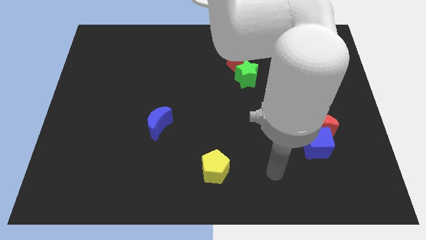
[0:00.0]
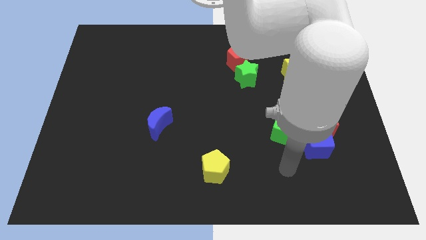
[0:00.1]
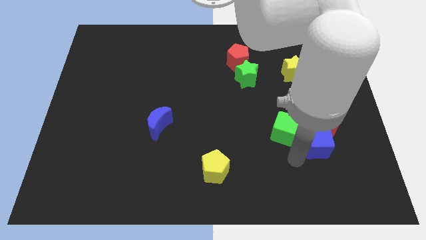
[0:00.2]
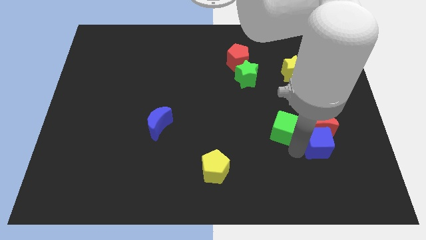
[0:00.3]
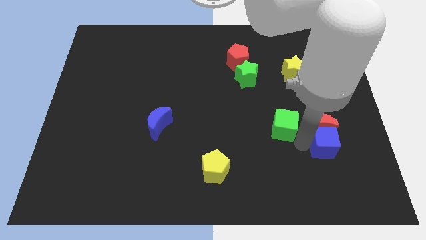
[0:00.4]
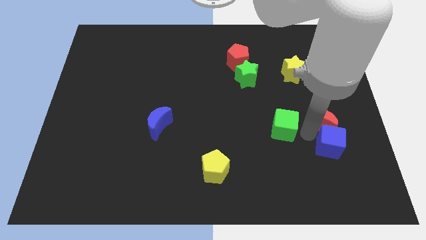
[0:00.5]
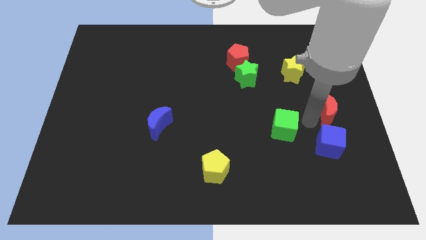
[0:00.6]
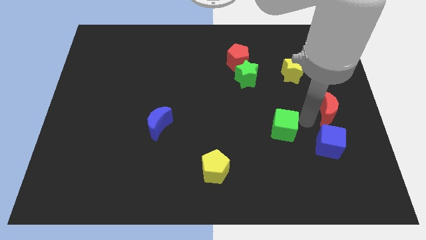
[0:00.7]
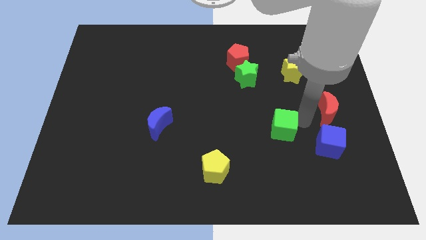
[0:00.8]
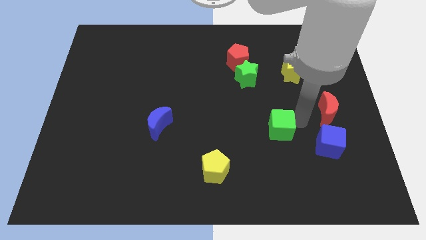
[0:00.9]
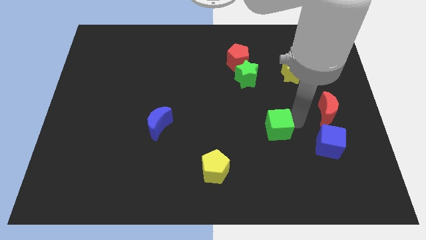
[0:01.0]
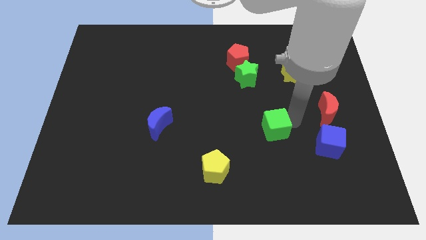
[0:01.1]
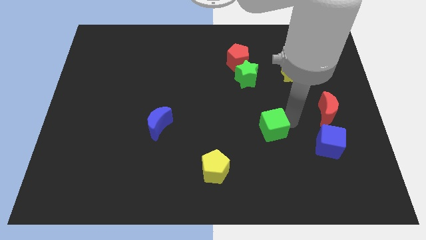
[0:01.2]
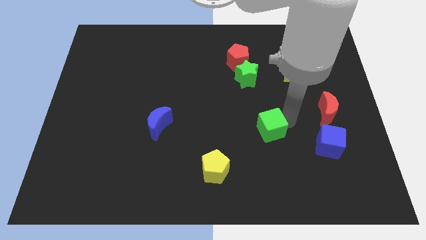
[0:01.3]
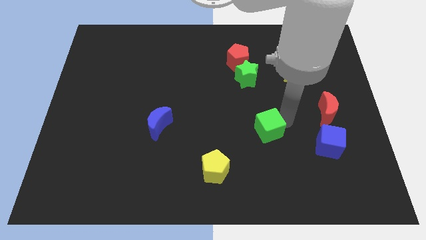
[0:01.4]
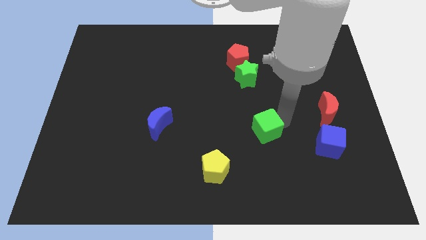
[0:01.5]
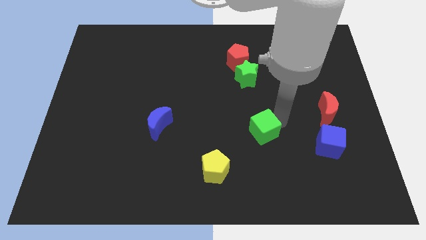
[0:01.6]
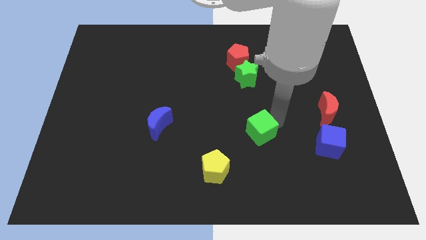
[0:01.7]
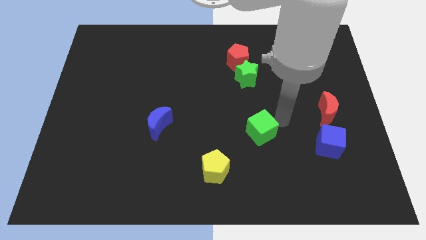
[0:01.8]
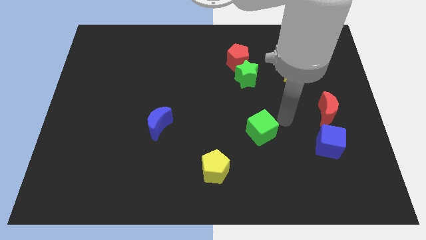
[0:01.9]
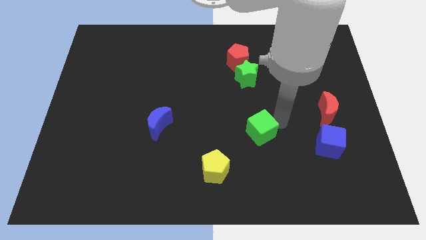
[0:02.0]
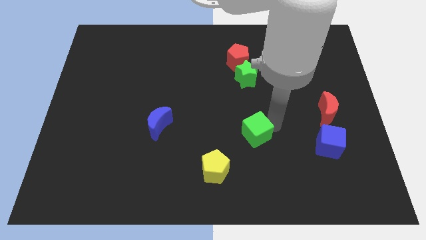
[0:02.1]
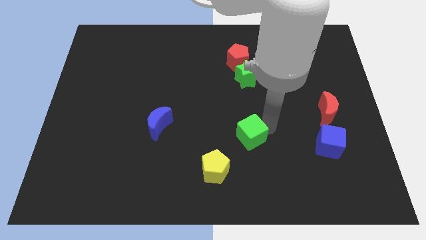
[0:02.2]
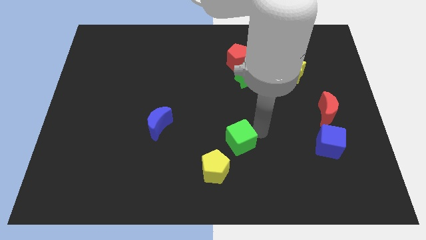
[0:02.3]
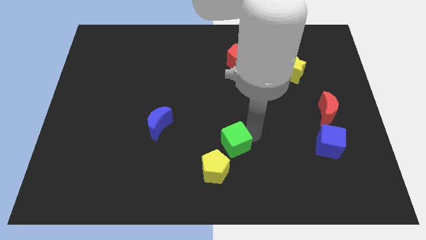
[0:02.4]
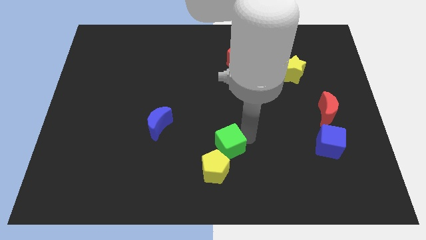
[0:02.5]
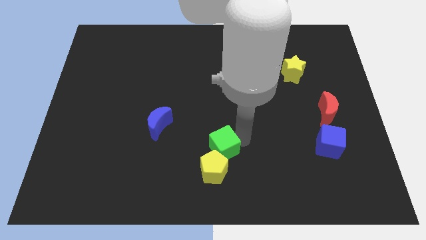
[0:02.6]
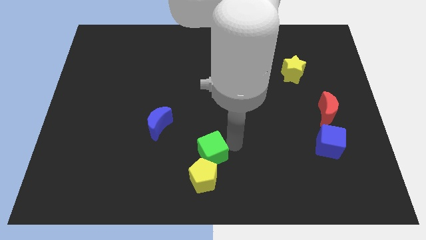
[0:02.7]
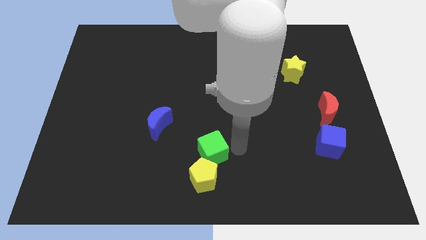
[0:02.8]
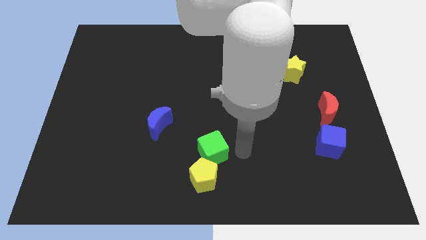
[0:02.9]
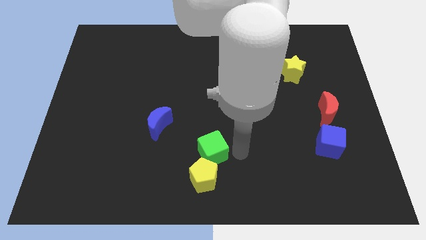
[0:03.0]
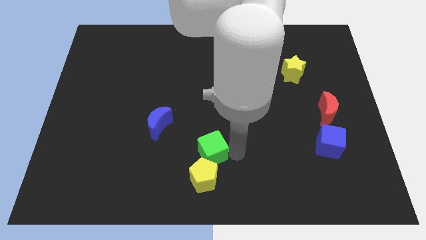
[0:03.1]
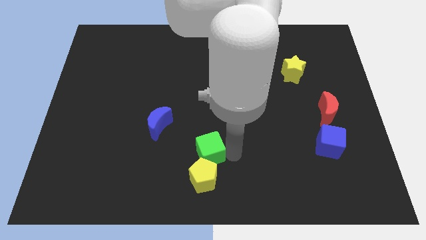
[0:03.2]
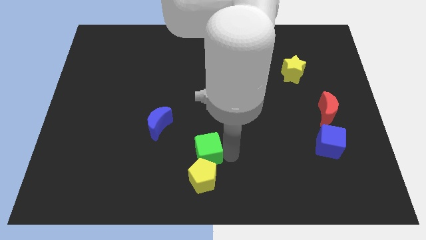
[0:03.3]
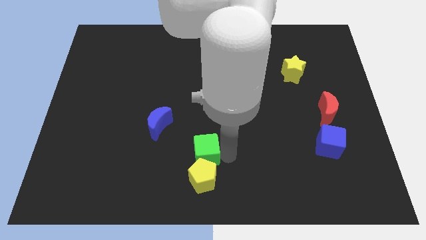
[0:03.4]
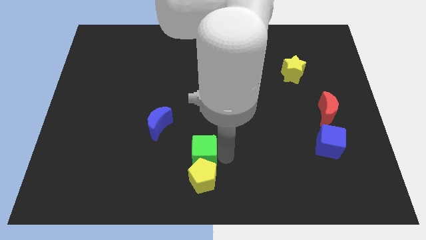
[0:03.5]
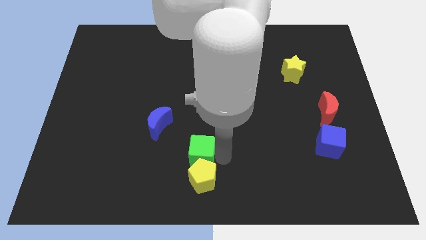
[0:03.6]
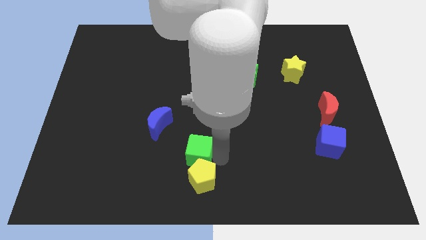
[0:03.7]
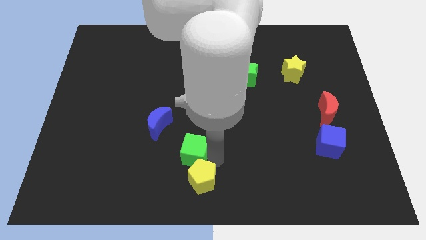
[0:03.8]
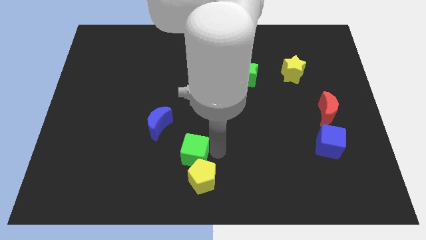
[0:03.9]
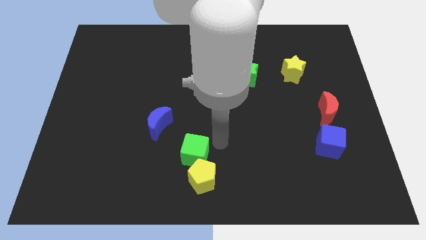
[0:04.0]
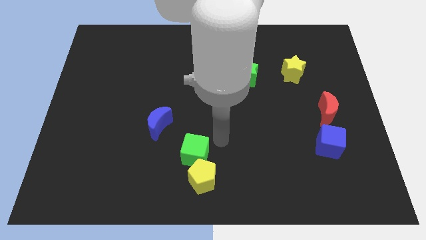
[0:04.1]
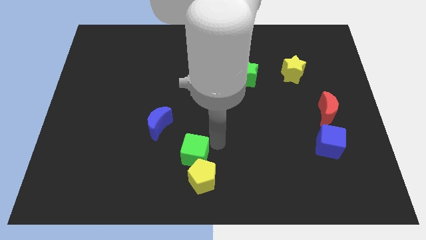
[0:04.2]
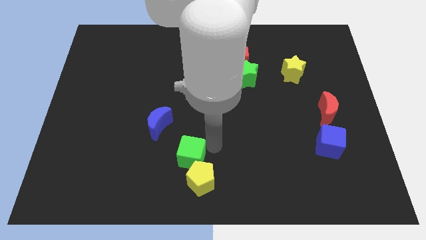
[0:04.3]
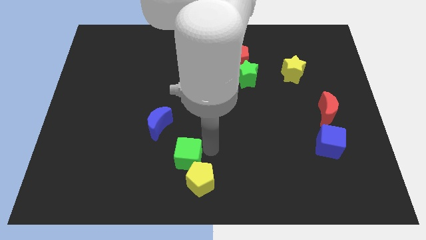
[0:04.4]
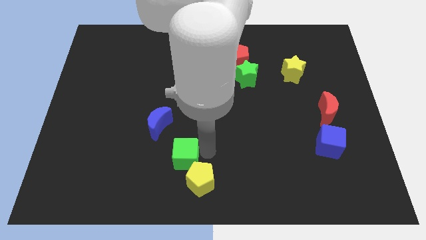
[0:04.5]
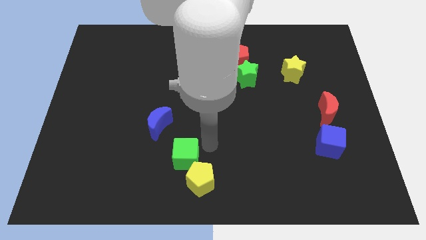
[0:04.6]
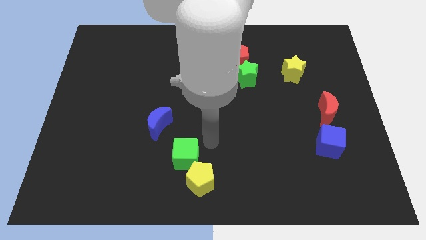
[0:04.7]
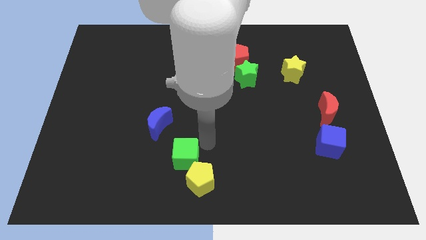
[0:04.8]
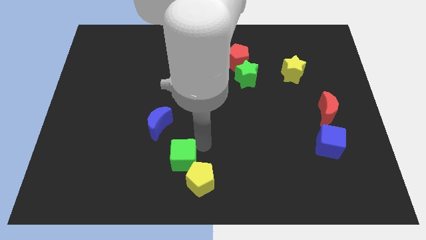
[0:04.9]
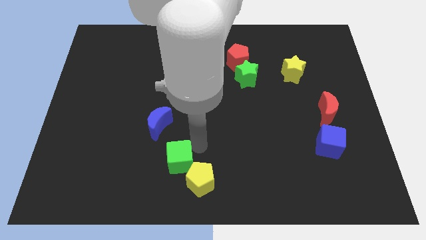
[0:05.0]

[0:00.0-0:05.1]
put the green cube to the left of the yellow pentagon

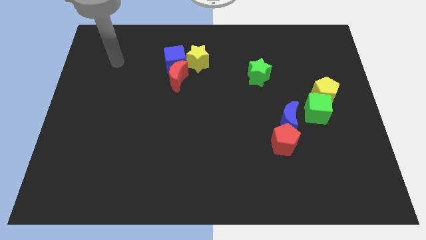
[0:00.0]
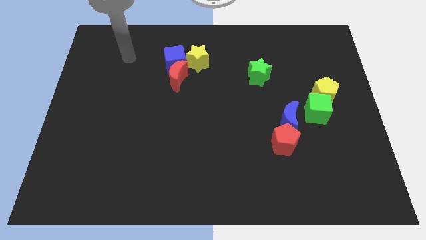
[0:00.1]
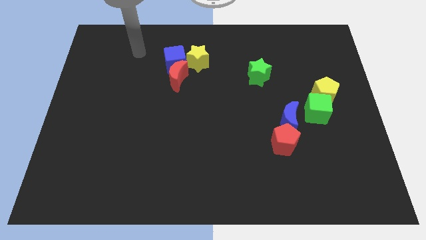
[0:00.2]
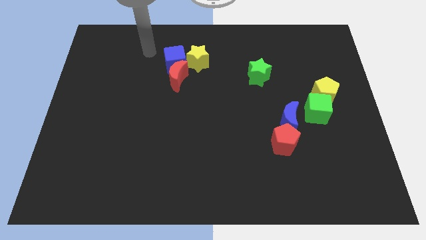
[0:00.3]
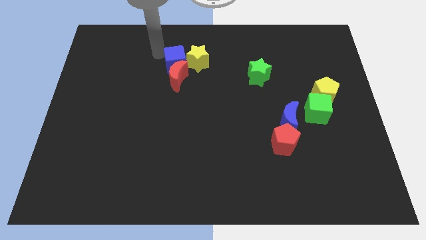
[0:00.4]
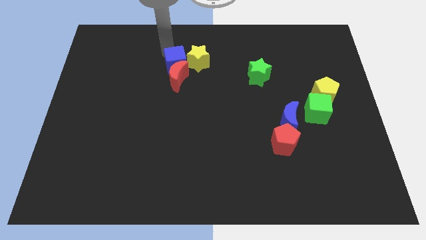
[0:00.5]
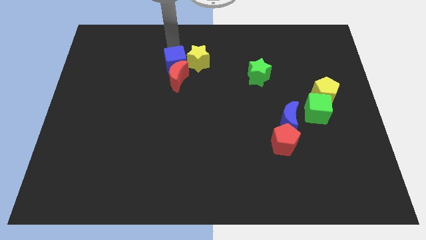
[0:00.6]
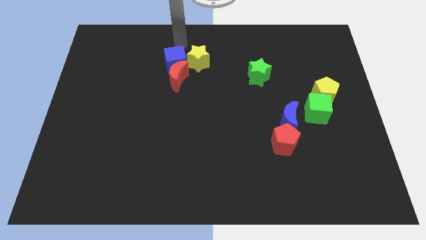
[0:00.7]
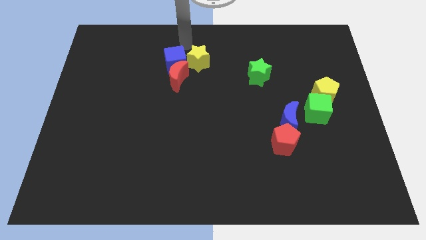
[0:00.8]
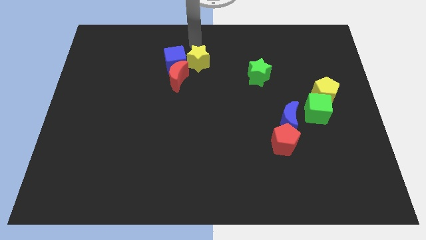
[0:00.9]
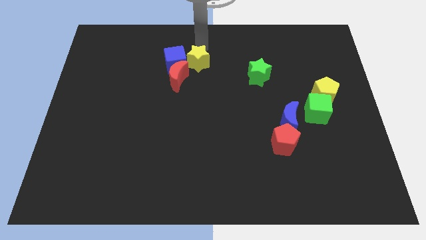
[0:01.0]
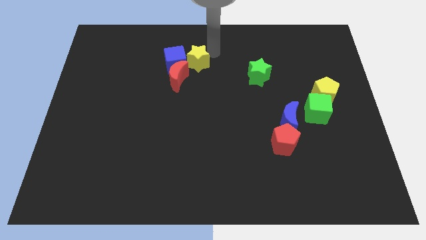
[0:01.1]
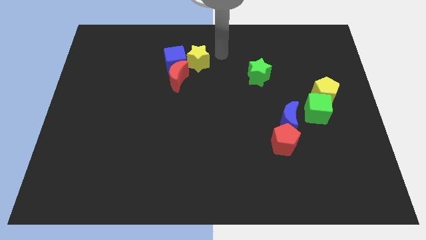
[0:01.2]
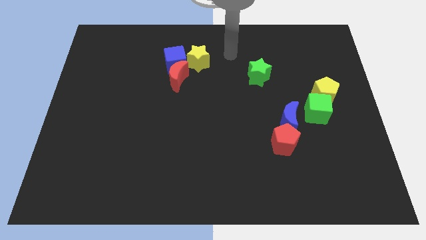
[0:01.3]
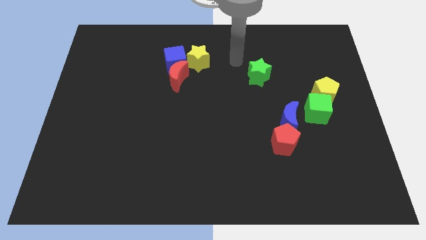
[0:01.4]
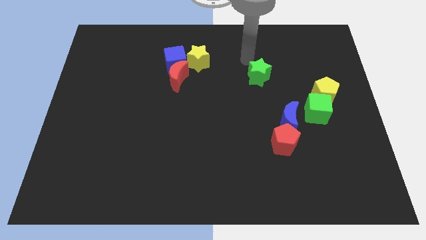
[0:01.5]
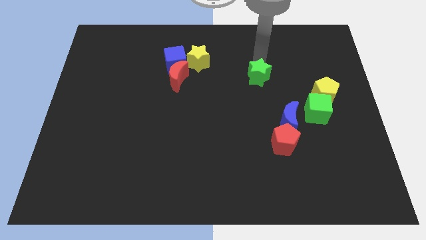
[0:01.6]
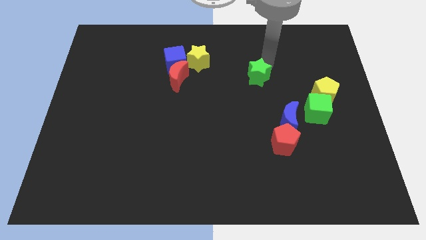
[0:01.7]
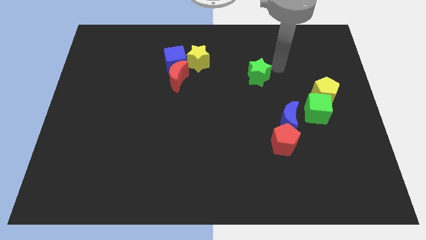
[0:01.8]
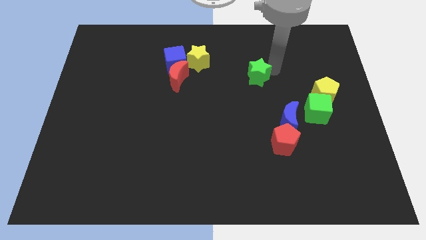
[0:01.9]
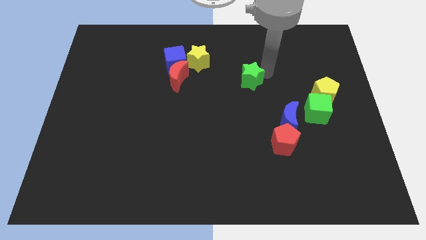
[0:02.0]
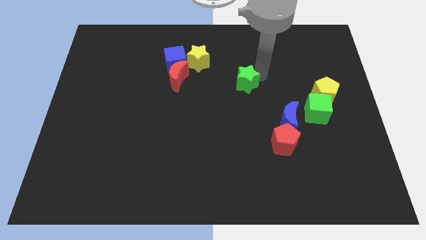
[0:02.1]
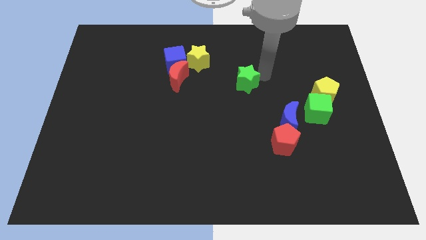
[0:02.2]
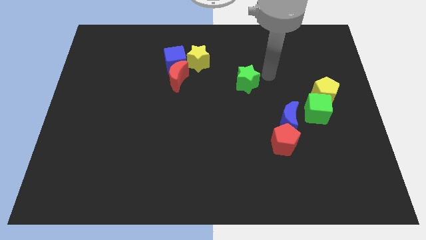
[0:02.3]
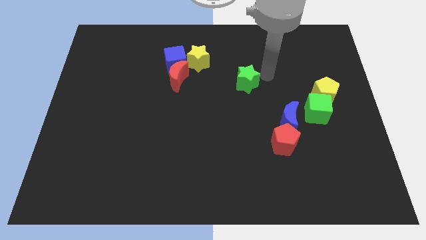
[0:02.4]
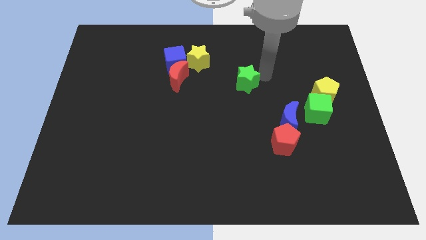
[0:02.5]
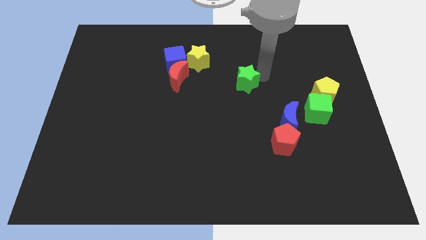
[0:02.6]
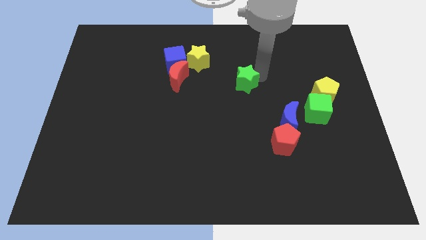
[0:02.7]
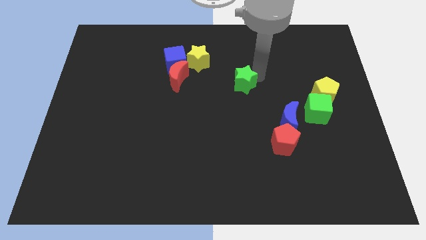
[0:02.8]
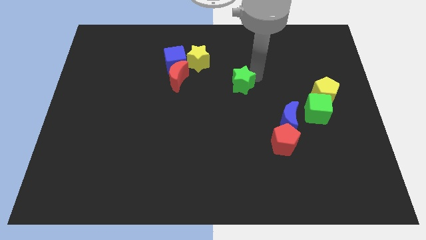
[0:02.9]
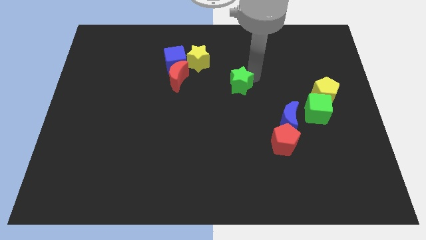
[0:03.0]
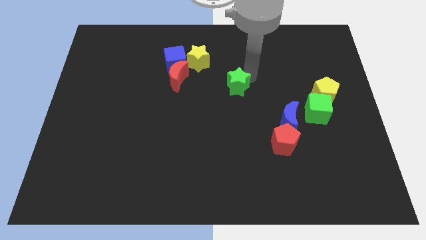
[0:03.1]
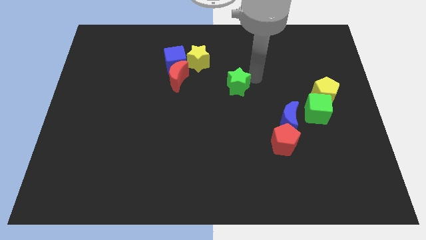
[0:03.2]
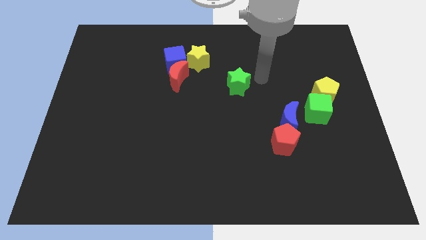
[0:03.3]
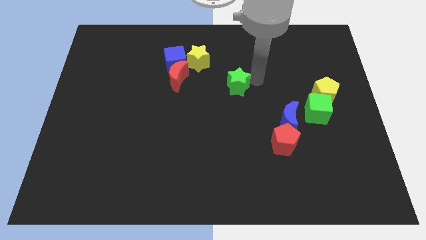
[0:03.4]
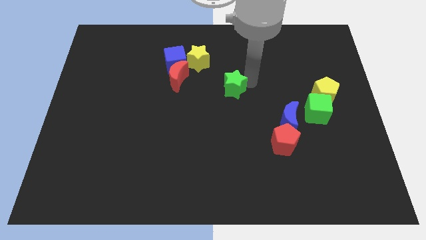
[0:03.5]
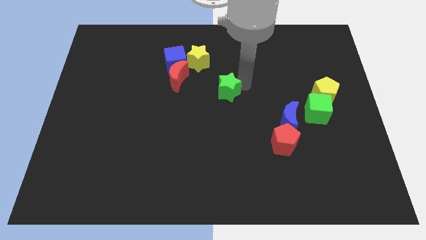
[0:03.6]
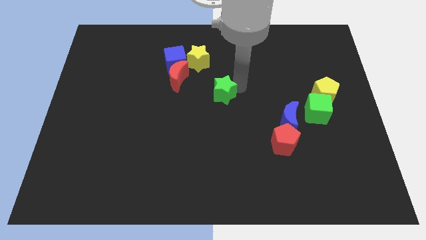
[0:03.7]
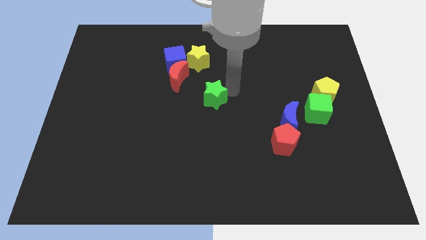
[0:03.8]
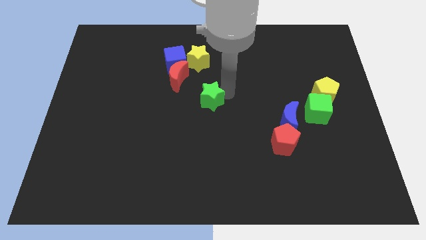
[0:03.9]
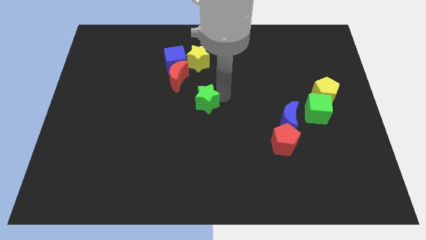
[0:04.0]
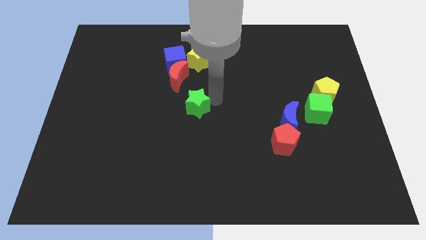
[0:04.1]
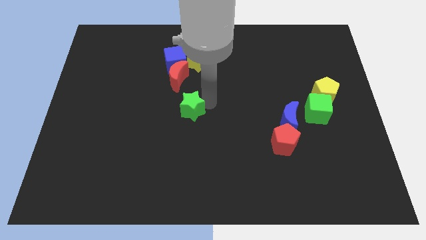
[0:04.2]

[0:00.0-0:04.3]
move the green star below the red moon
